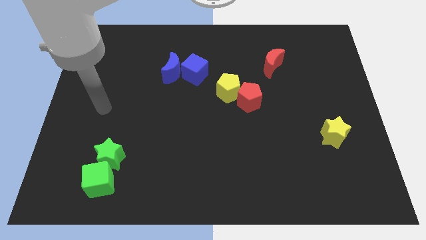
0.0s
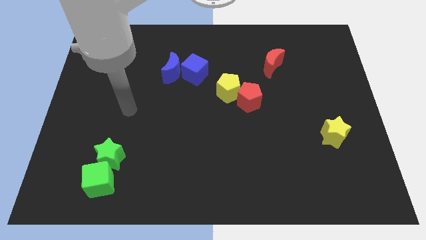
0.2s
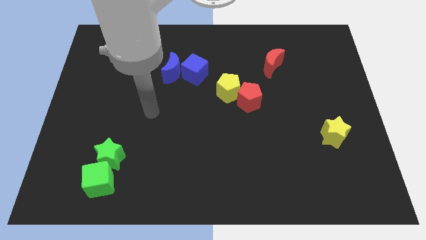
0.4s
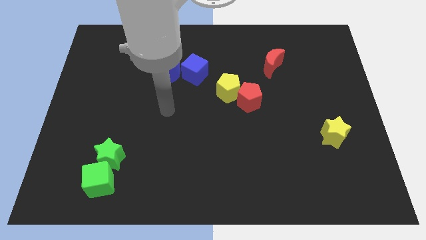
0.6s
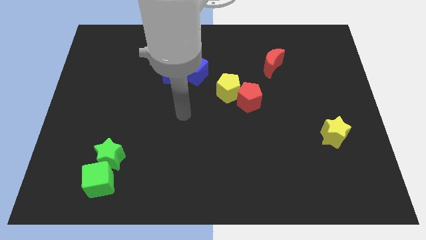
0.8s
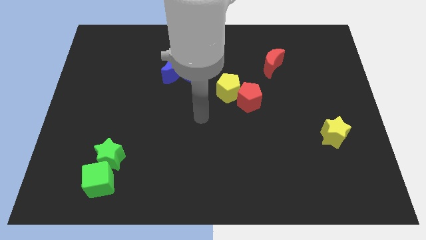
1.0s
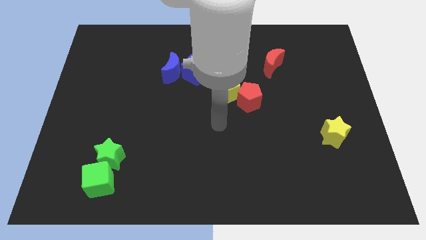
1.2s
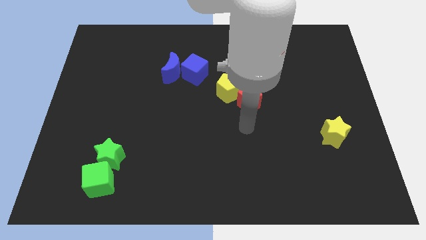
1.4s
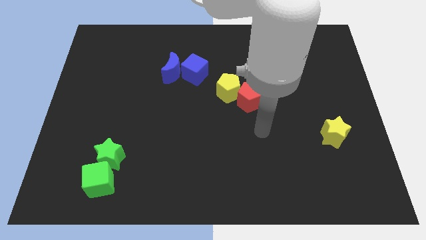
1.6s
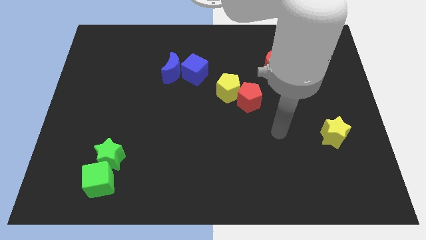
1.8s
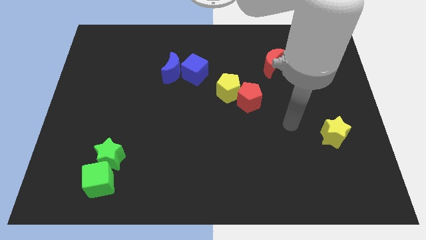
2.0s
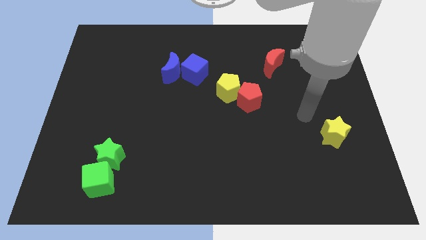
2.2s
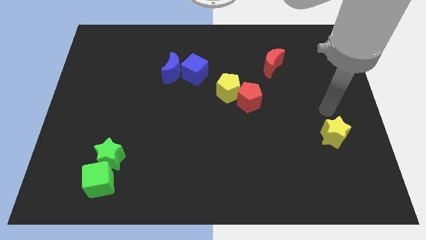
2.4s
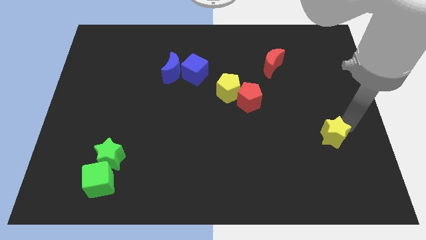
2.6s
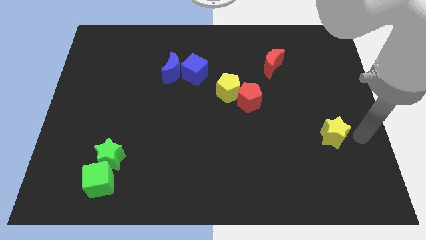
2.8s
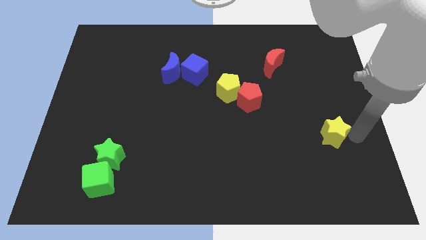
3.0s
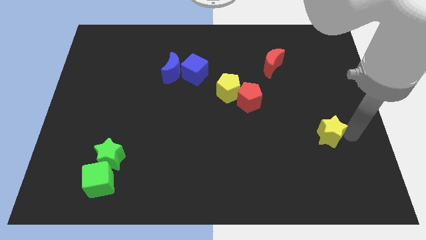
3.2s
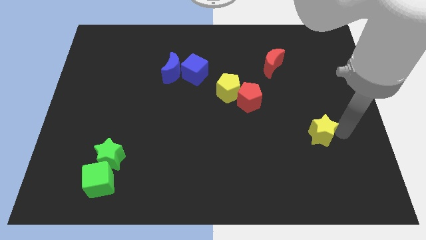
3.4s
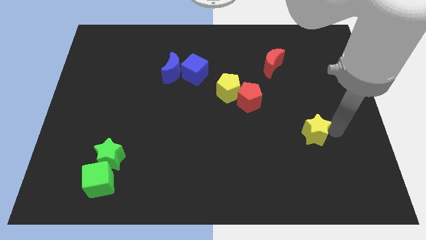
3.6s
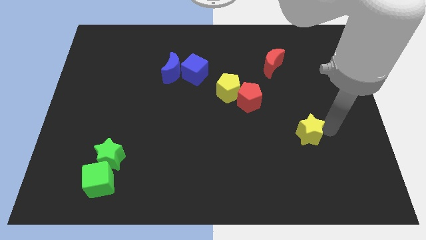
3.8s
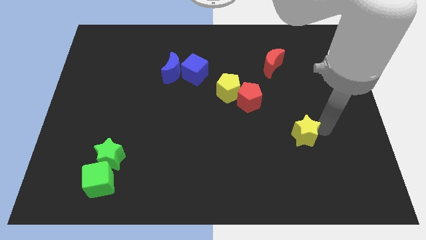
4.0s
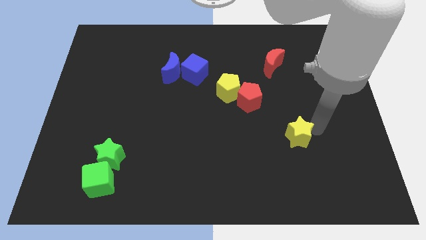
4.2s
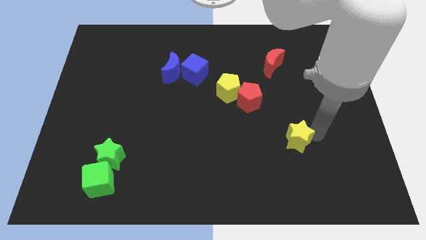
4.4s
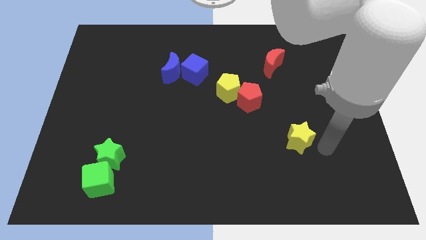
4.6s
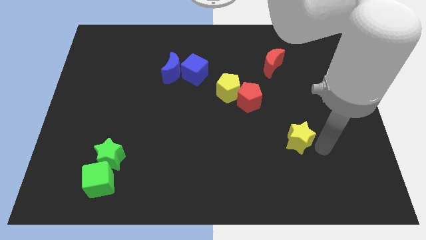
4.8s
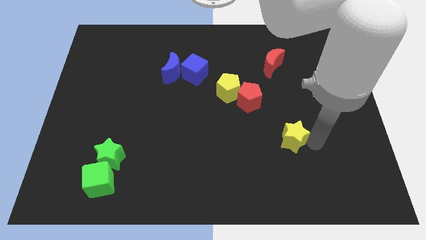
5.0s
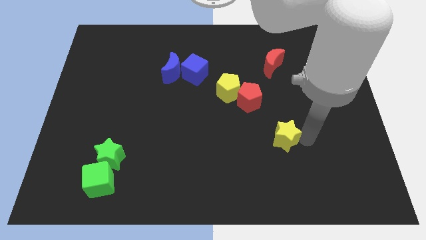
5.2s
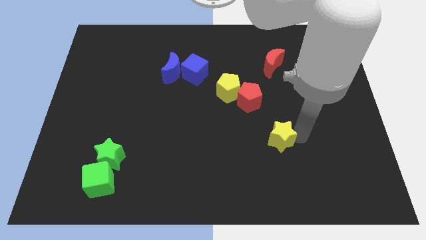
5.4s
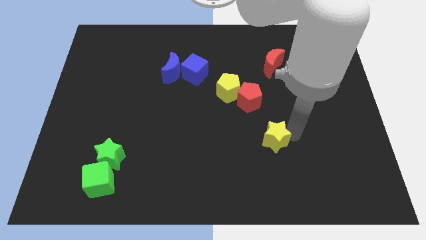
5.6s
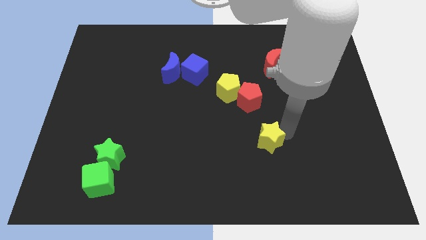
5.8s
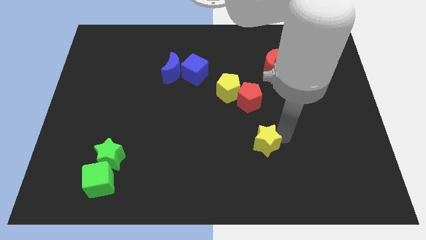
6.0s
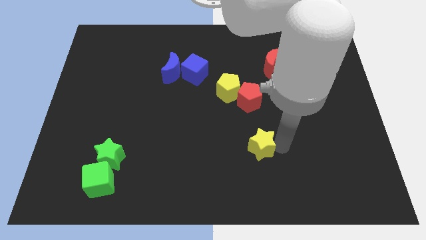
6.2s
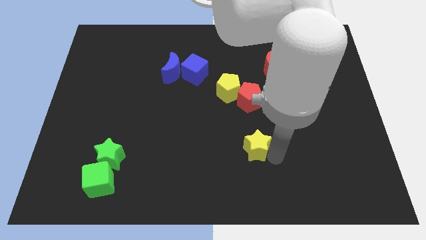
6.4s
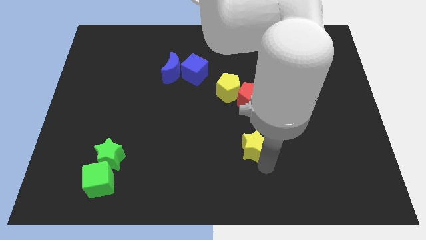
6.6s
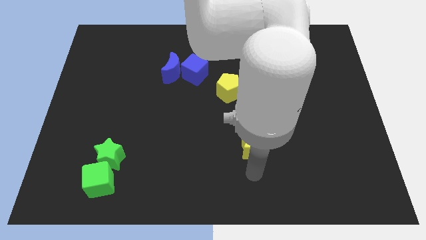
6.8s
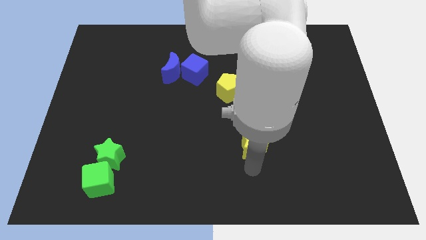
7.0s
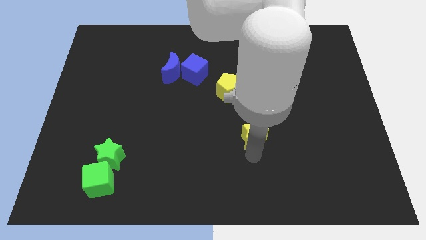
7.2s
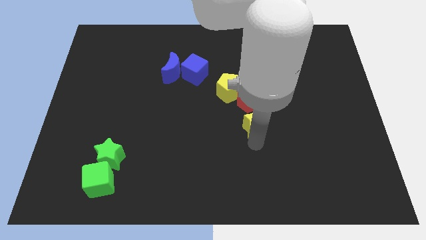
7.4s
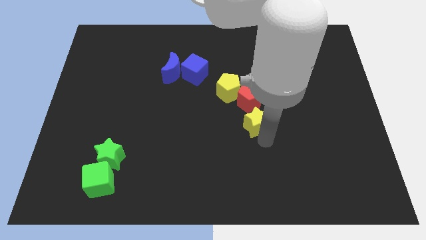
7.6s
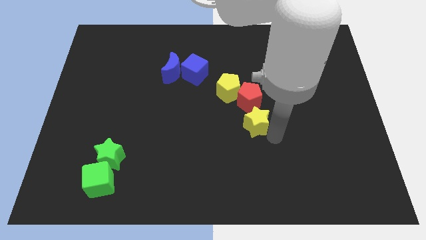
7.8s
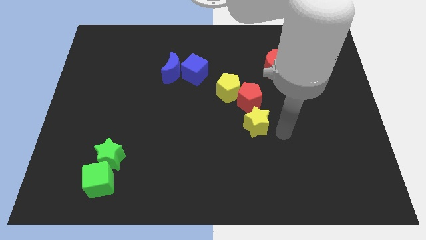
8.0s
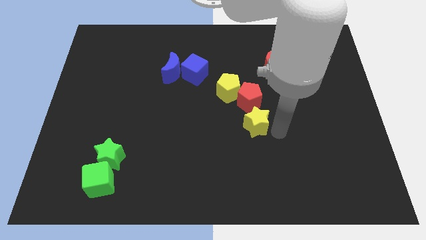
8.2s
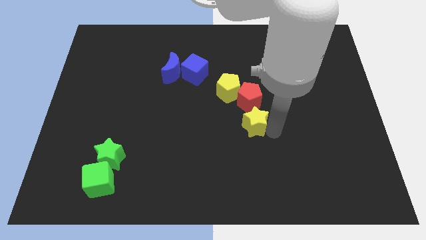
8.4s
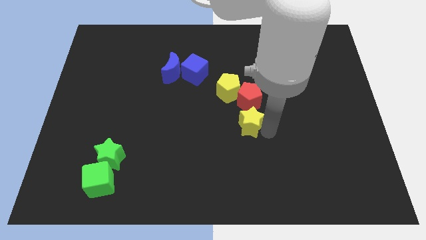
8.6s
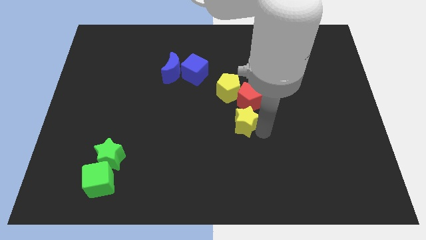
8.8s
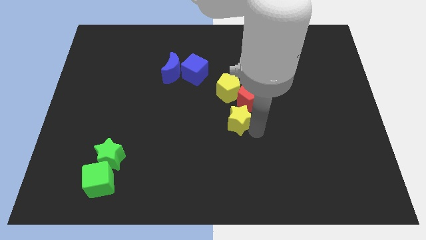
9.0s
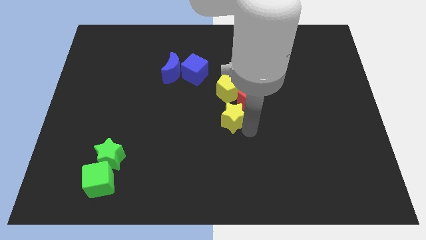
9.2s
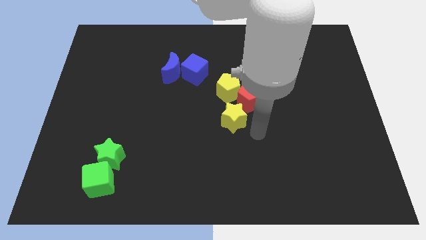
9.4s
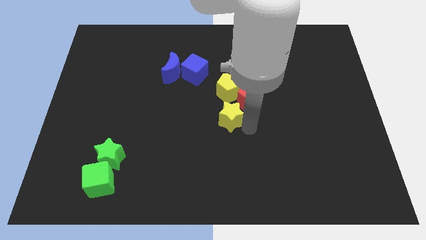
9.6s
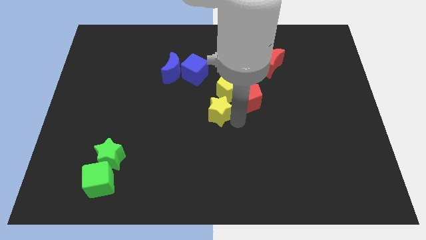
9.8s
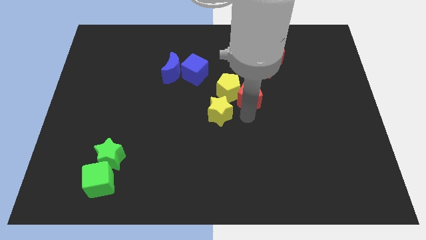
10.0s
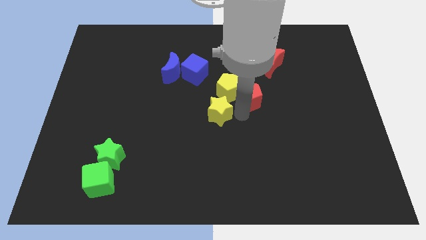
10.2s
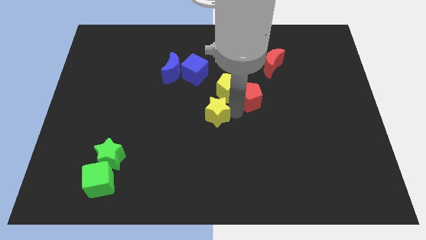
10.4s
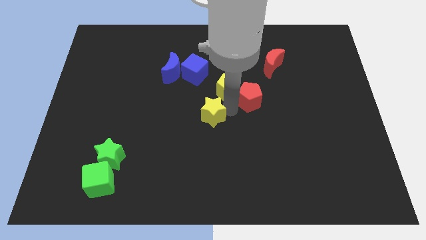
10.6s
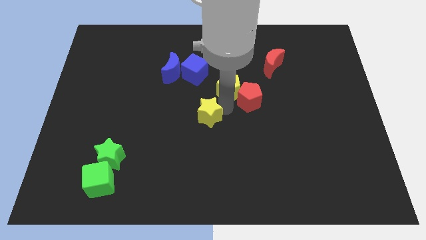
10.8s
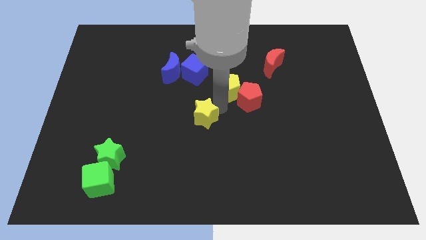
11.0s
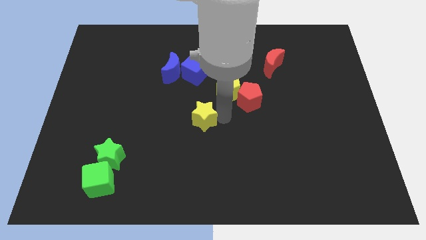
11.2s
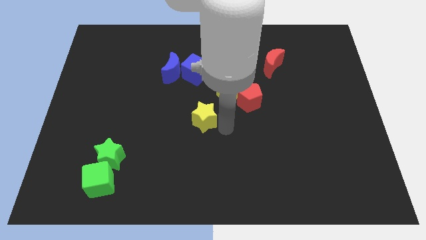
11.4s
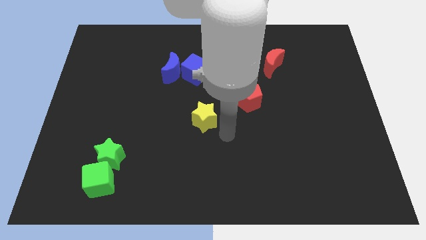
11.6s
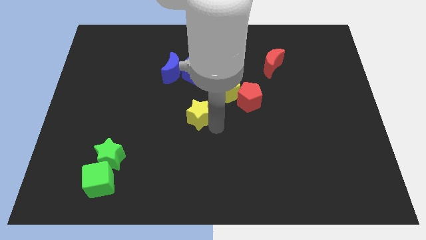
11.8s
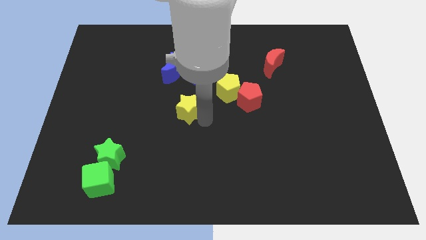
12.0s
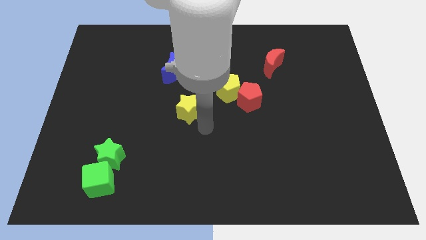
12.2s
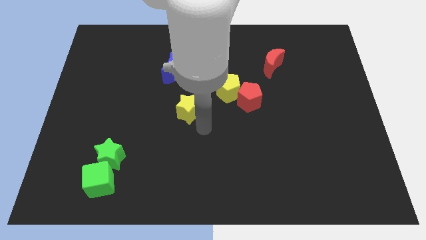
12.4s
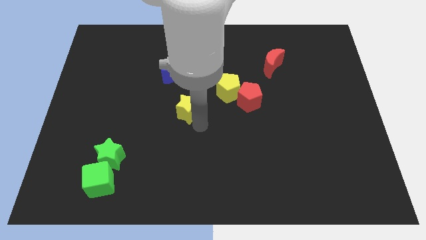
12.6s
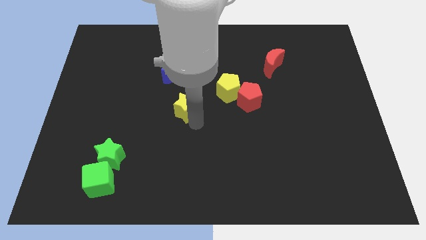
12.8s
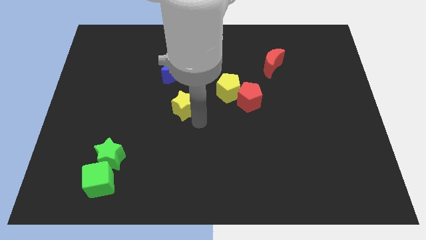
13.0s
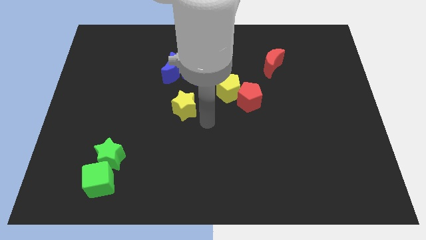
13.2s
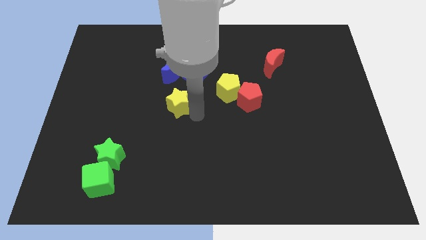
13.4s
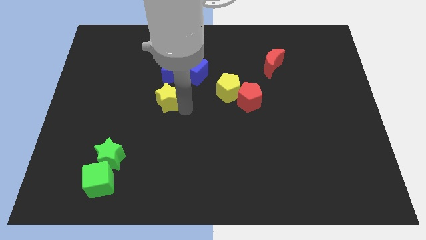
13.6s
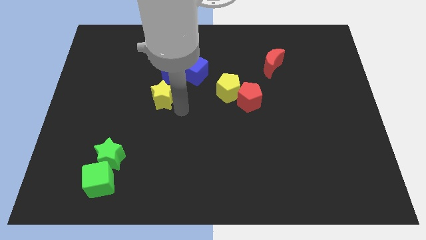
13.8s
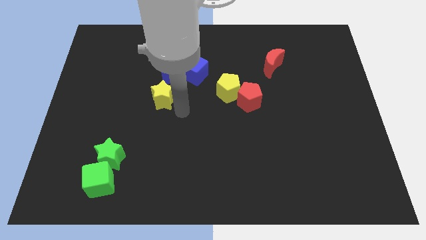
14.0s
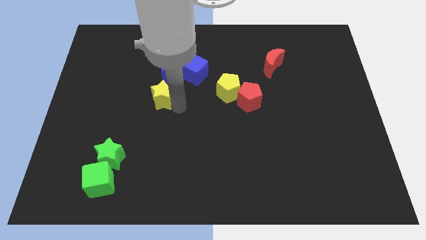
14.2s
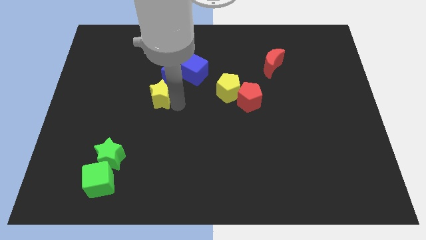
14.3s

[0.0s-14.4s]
push the yellow star to the bottom left of the blue moon

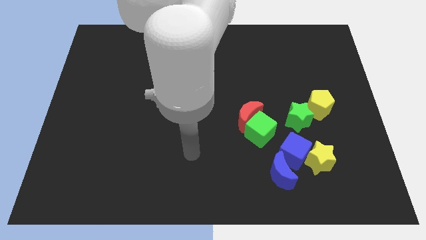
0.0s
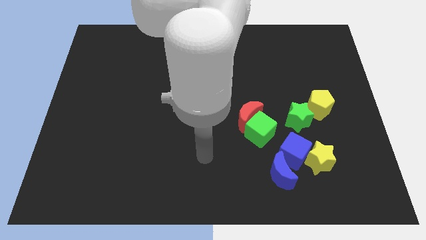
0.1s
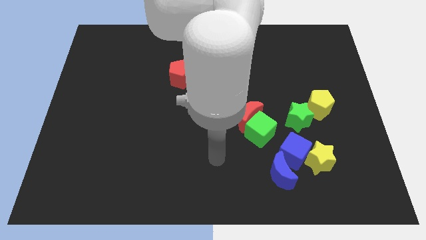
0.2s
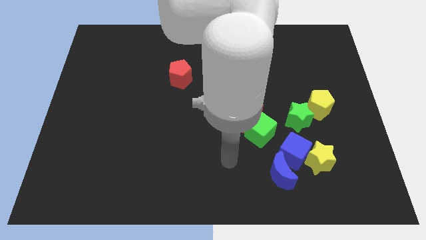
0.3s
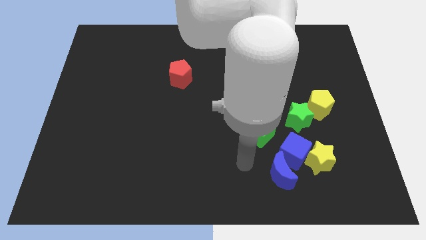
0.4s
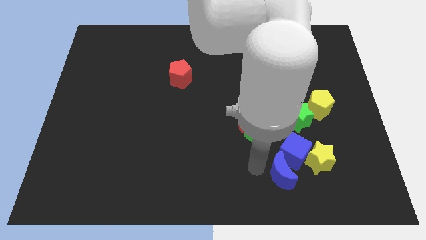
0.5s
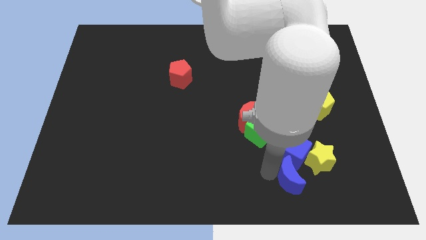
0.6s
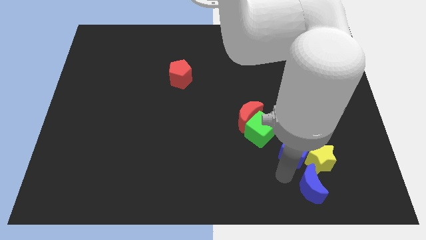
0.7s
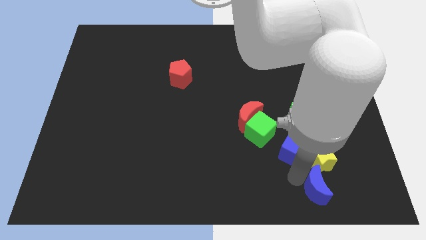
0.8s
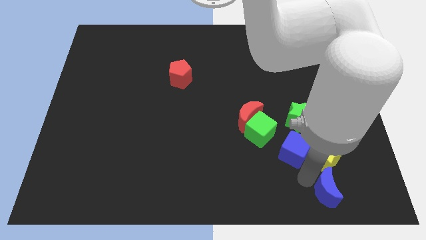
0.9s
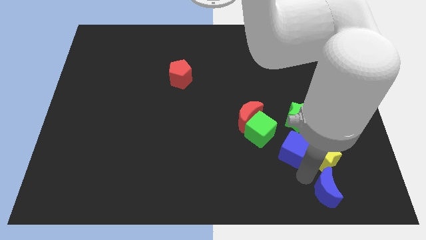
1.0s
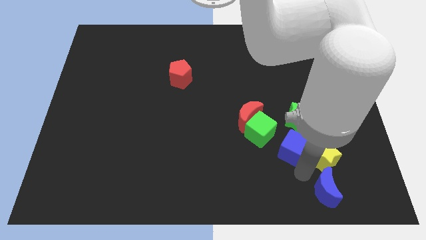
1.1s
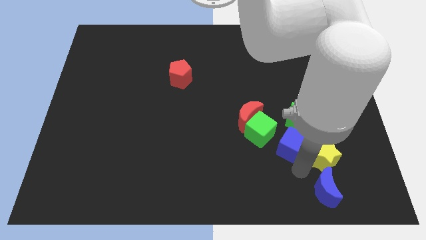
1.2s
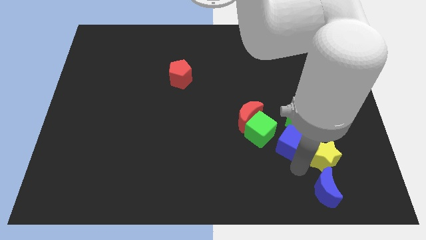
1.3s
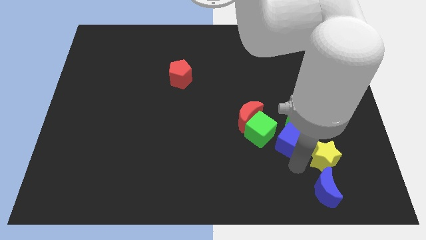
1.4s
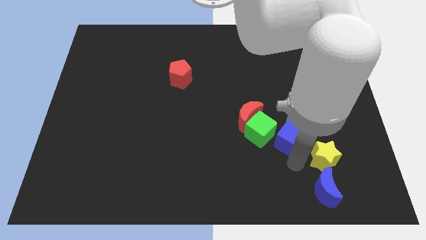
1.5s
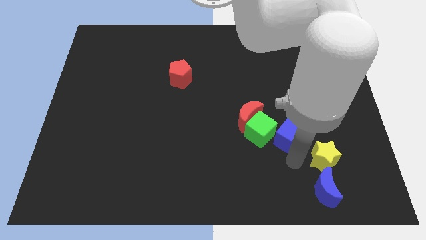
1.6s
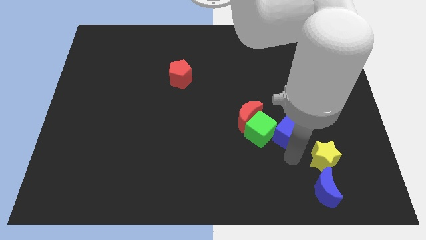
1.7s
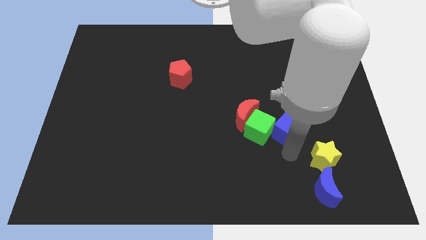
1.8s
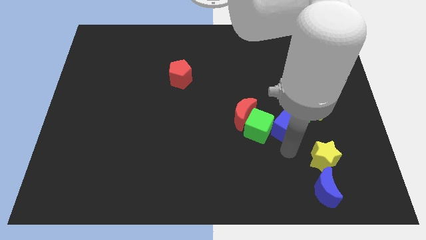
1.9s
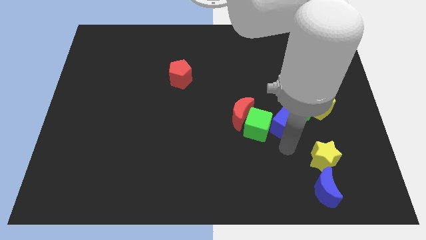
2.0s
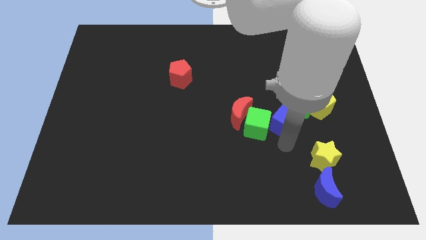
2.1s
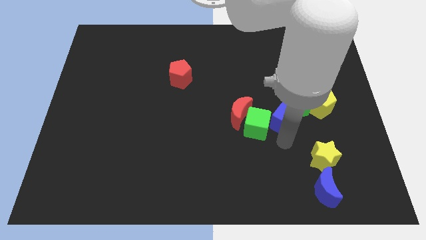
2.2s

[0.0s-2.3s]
put the blue cube to the left side of the yellow pentagon
